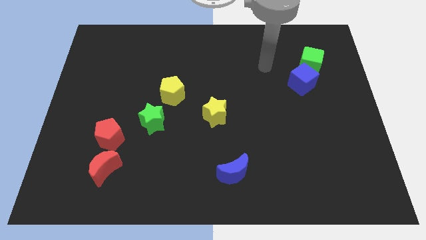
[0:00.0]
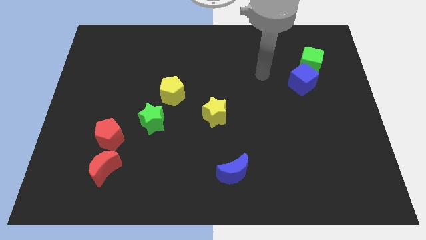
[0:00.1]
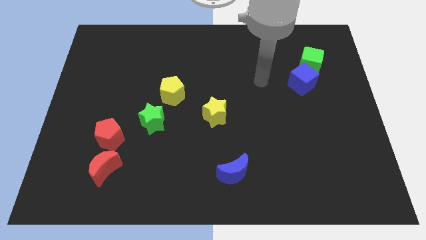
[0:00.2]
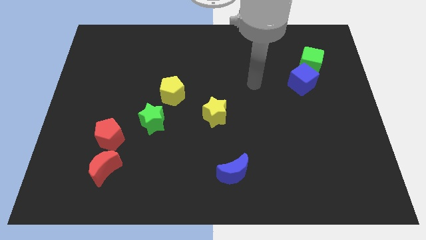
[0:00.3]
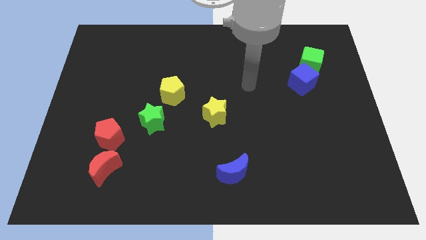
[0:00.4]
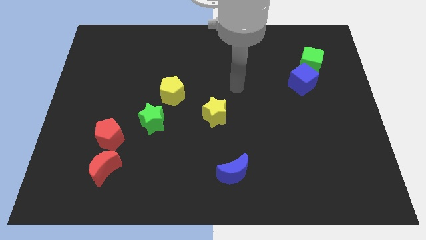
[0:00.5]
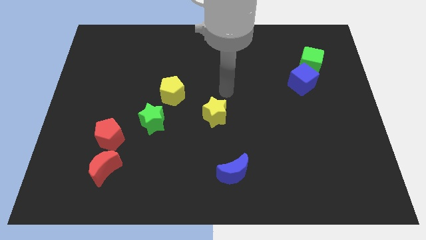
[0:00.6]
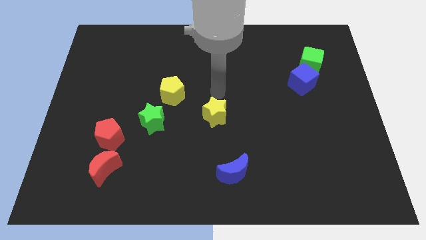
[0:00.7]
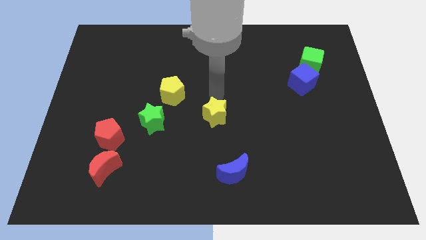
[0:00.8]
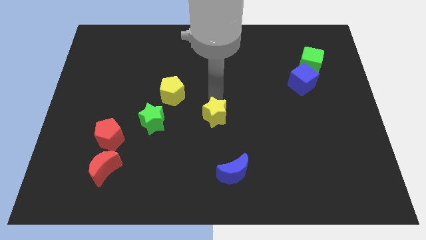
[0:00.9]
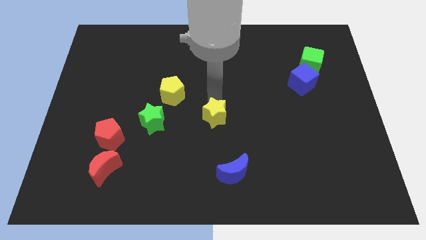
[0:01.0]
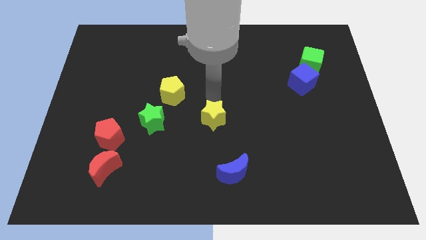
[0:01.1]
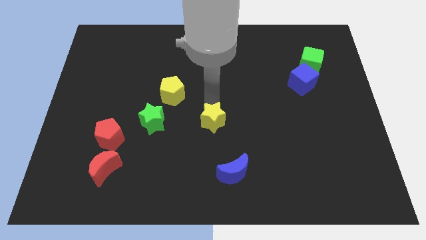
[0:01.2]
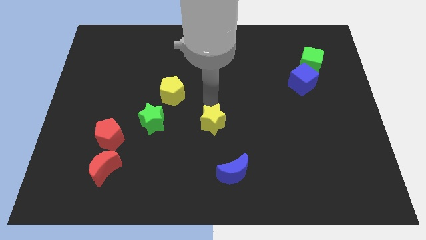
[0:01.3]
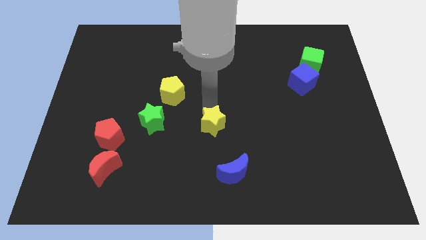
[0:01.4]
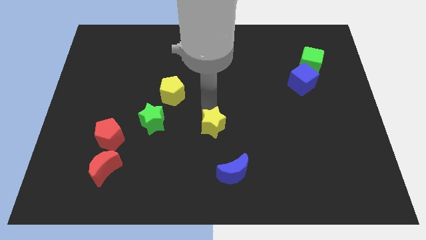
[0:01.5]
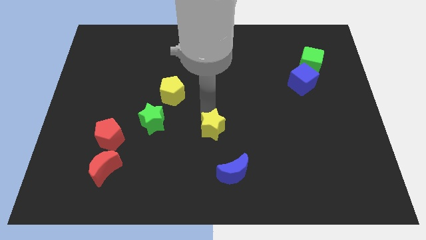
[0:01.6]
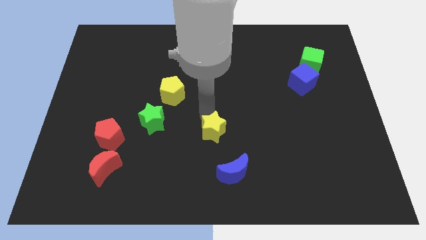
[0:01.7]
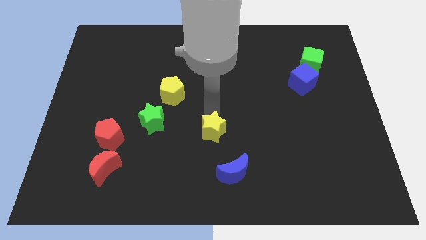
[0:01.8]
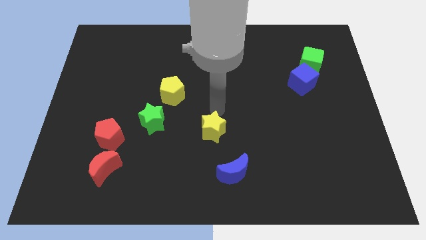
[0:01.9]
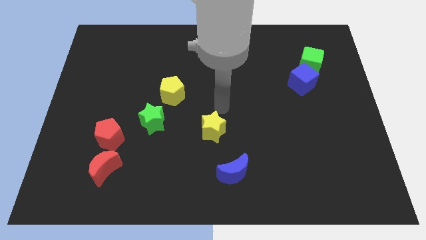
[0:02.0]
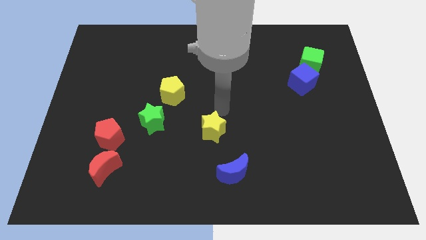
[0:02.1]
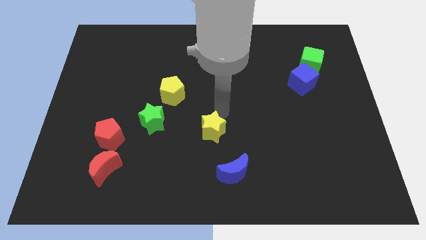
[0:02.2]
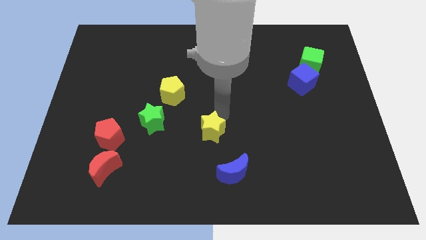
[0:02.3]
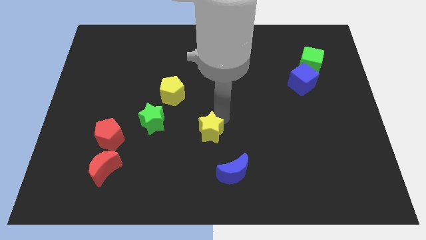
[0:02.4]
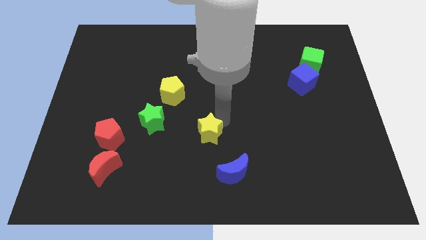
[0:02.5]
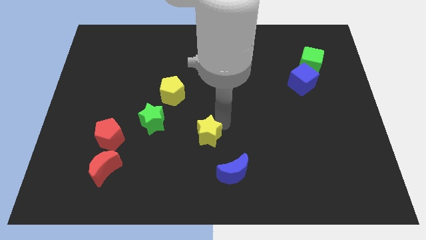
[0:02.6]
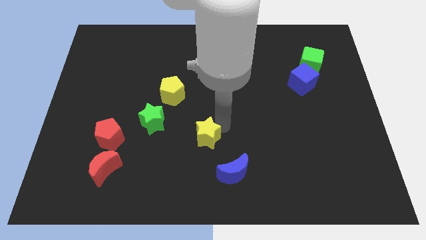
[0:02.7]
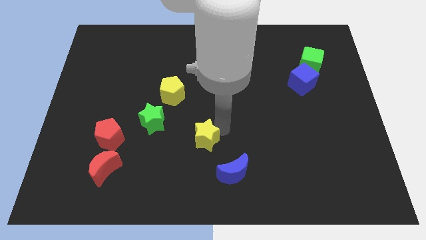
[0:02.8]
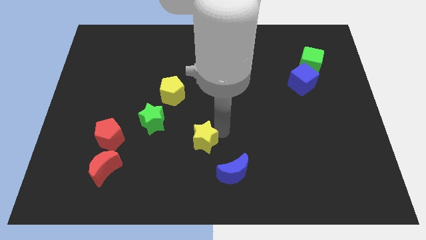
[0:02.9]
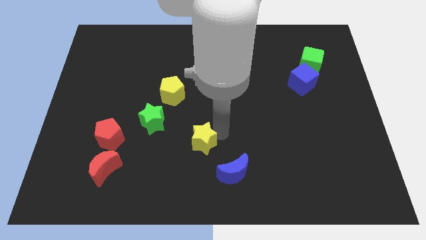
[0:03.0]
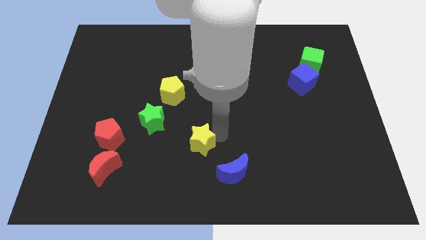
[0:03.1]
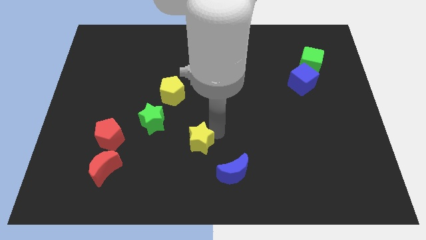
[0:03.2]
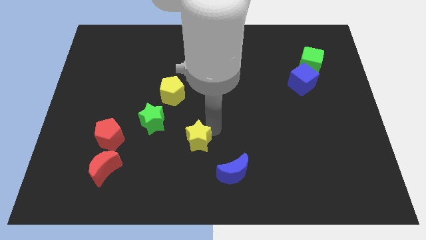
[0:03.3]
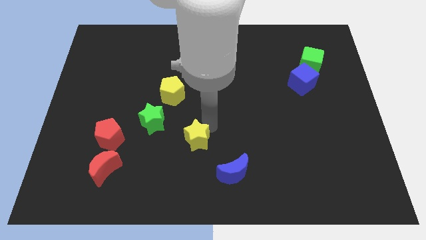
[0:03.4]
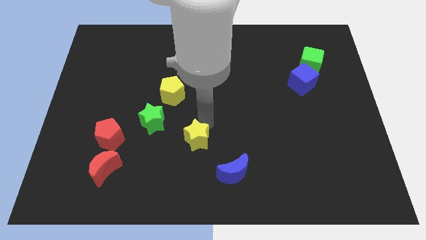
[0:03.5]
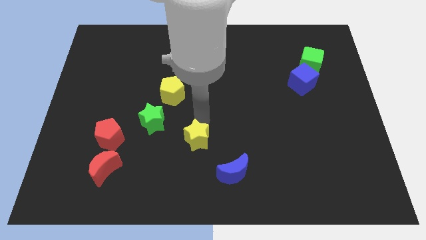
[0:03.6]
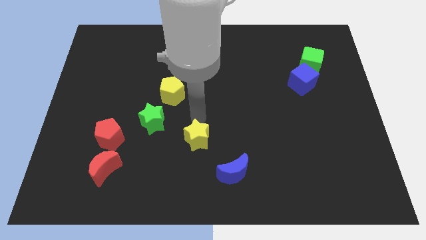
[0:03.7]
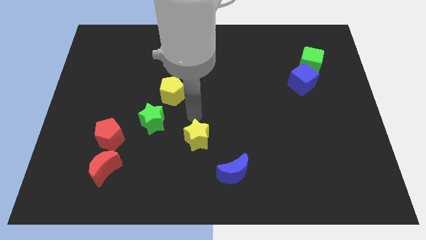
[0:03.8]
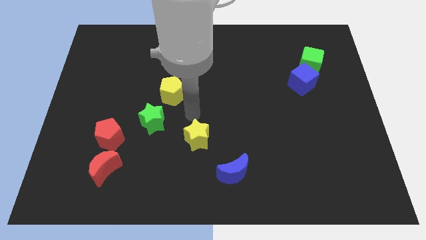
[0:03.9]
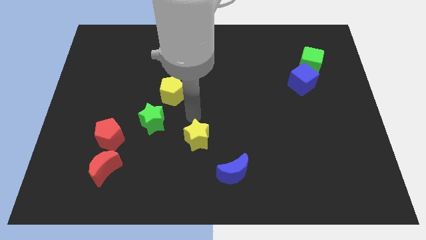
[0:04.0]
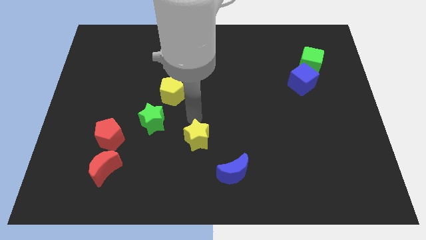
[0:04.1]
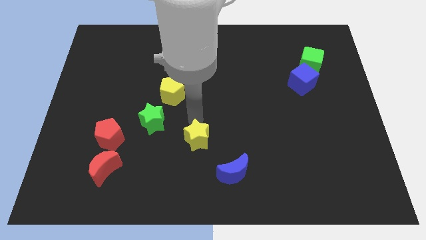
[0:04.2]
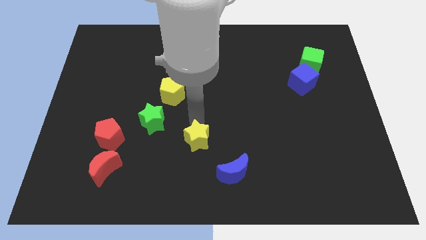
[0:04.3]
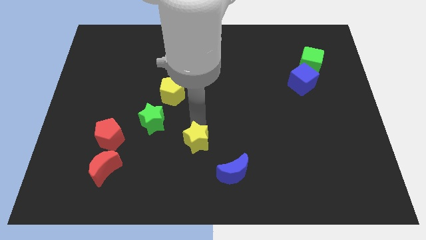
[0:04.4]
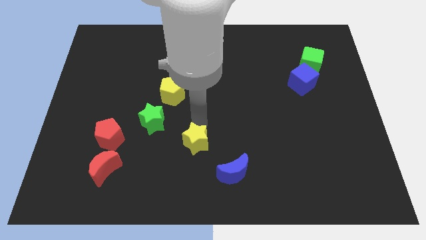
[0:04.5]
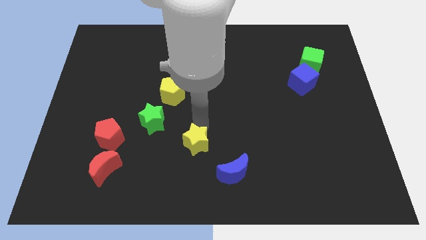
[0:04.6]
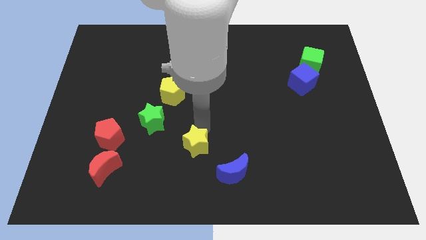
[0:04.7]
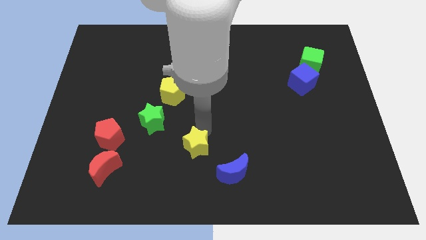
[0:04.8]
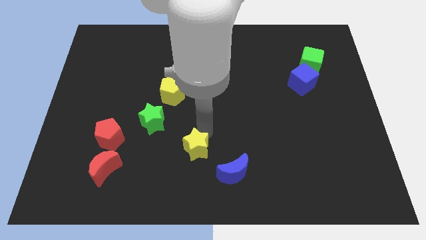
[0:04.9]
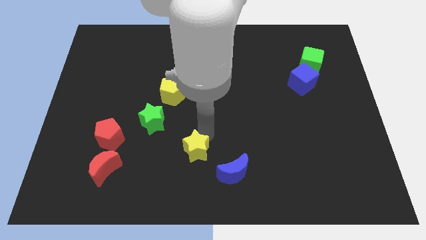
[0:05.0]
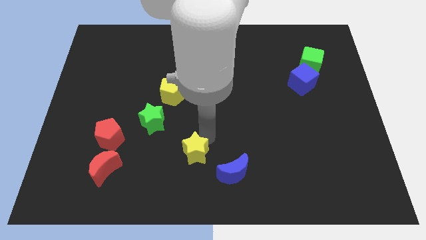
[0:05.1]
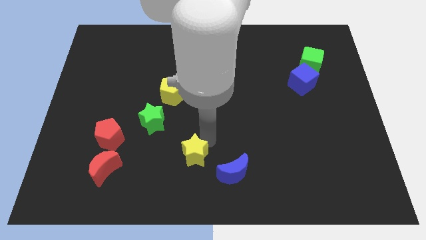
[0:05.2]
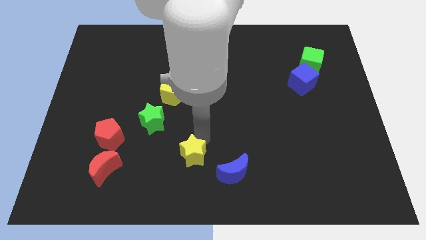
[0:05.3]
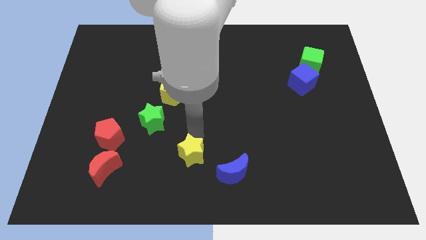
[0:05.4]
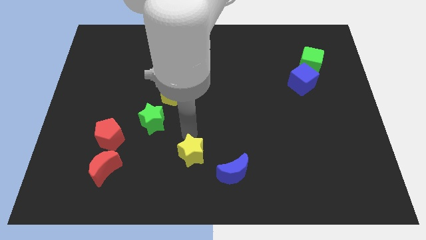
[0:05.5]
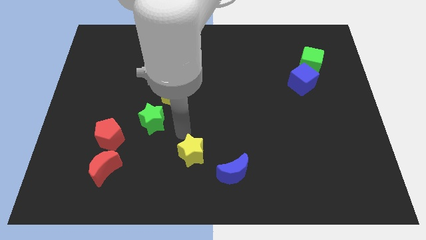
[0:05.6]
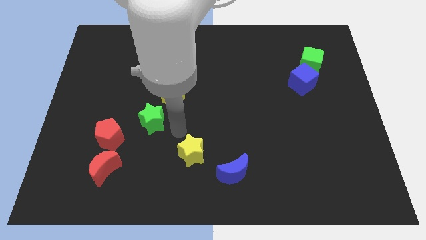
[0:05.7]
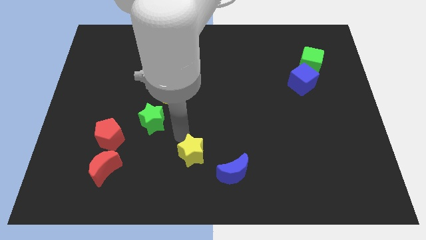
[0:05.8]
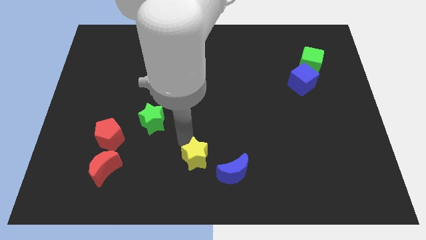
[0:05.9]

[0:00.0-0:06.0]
push the yellow star to the bottom
